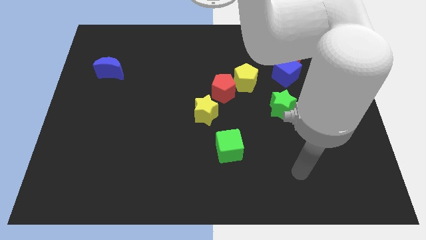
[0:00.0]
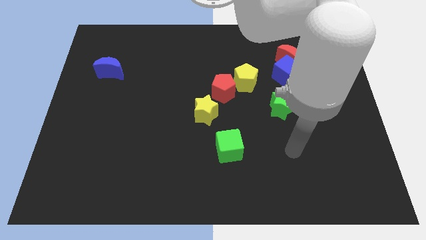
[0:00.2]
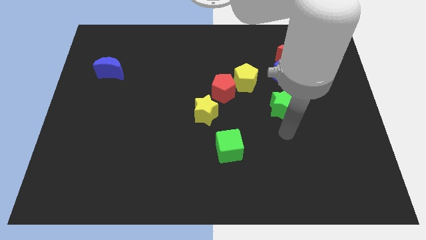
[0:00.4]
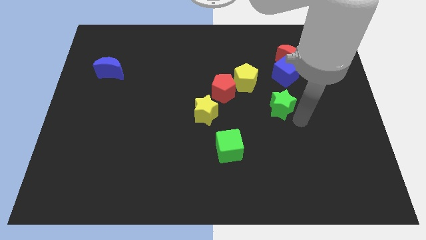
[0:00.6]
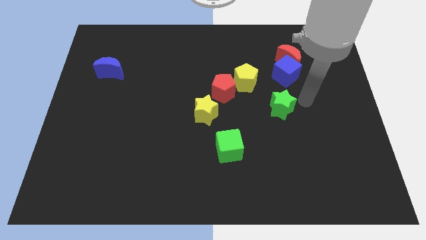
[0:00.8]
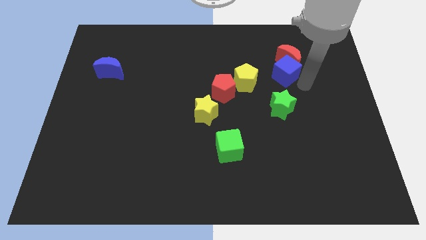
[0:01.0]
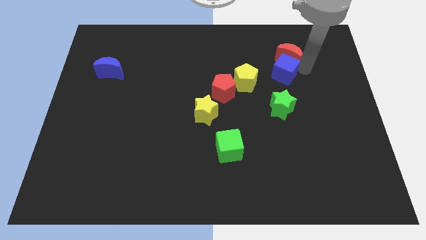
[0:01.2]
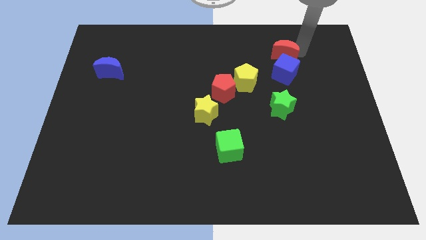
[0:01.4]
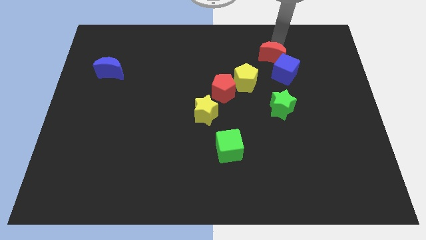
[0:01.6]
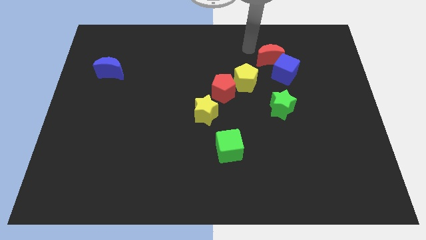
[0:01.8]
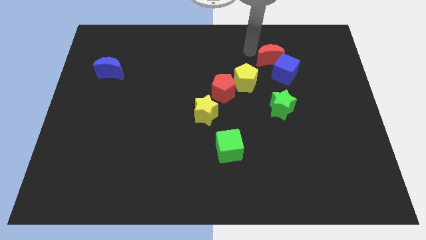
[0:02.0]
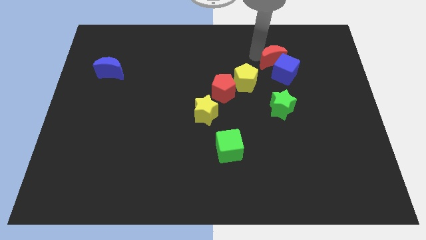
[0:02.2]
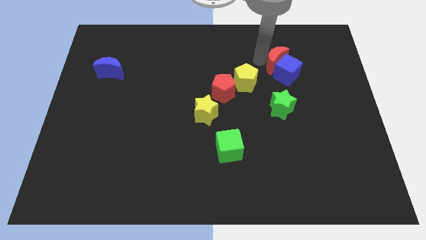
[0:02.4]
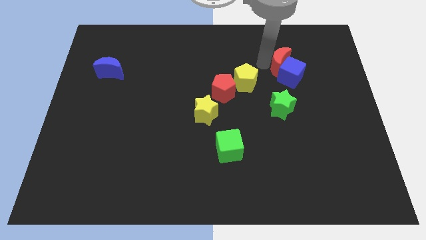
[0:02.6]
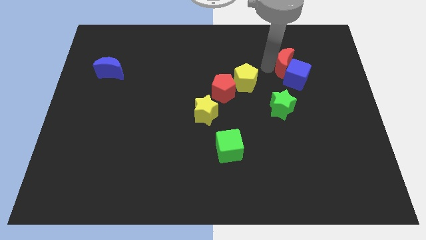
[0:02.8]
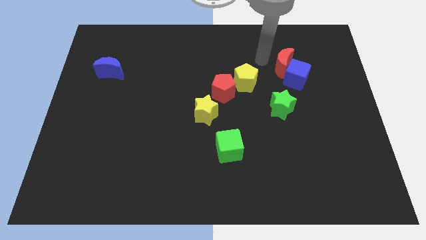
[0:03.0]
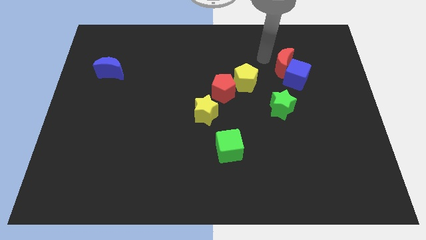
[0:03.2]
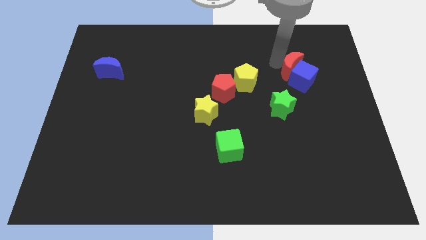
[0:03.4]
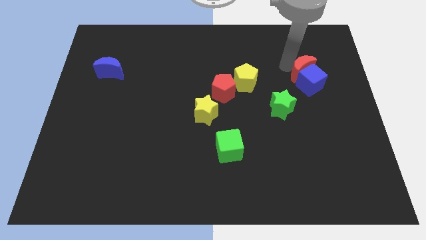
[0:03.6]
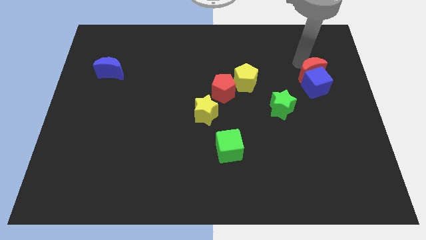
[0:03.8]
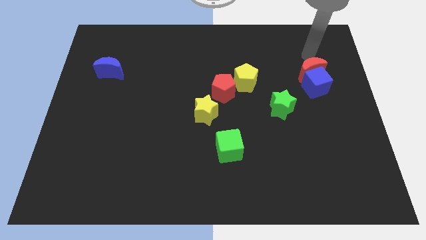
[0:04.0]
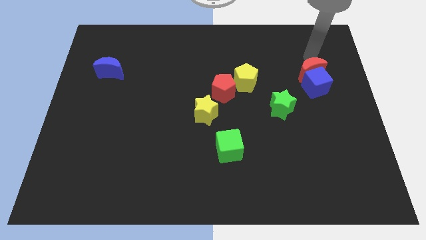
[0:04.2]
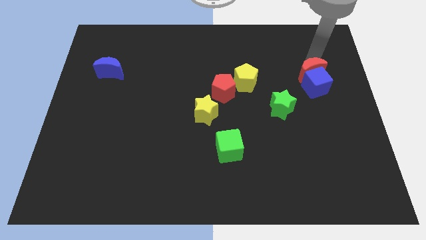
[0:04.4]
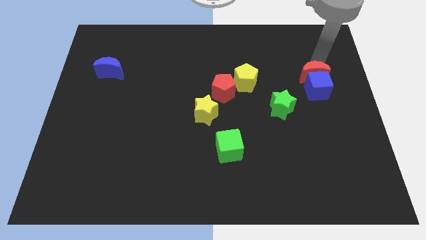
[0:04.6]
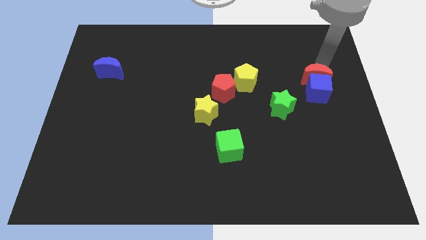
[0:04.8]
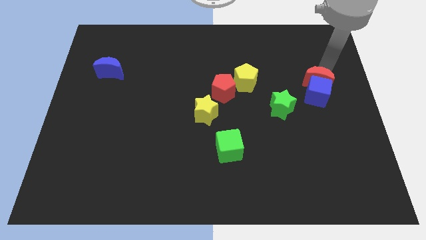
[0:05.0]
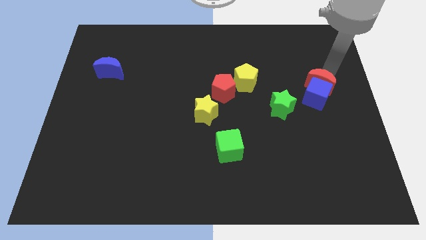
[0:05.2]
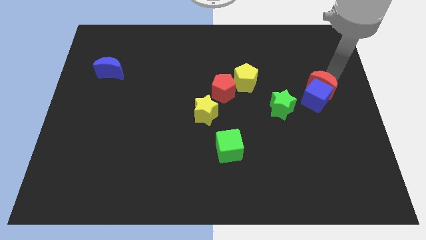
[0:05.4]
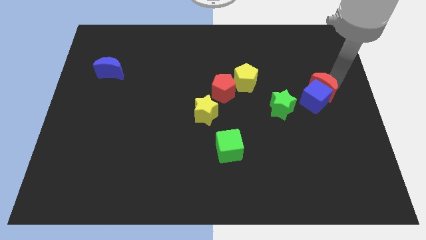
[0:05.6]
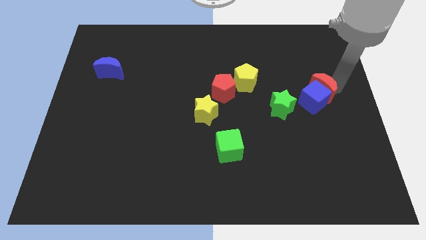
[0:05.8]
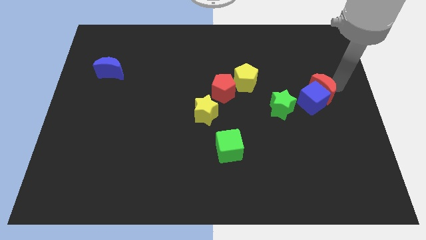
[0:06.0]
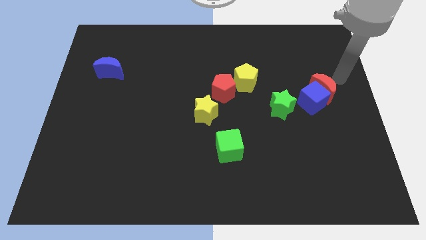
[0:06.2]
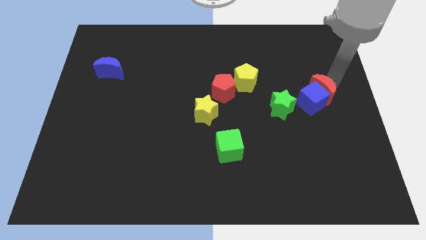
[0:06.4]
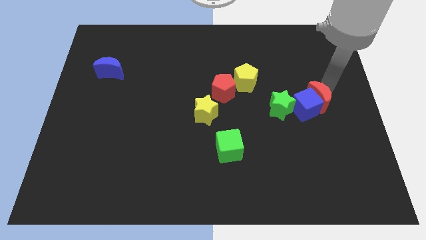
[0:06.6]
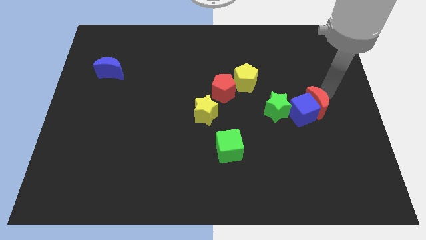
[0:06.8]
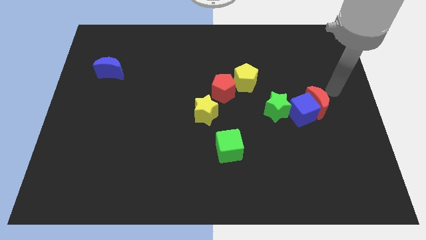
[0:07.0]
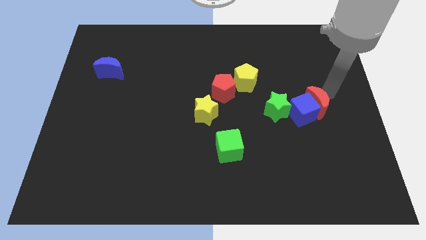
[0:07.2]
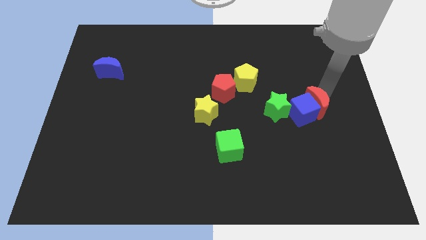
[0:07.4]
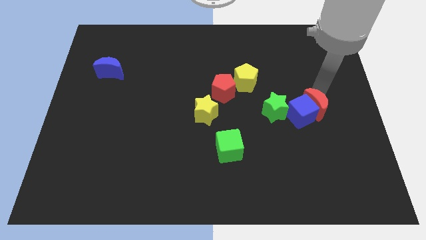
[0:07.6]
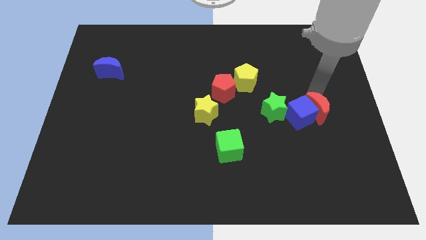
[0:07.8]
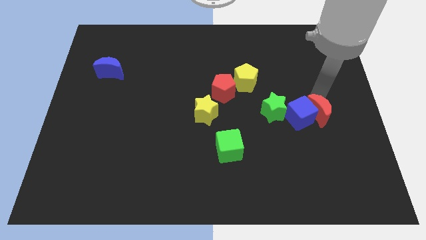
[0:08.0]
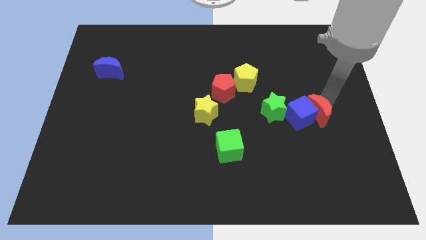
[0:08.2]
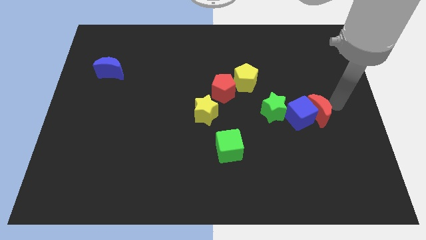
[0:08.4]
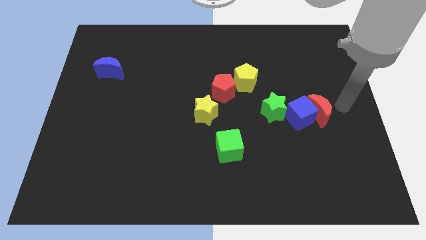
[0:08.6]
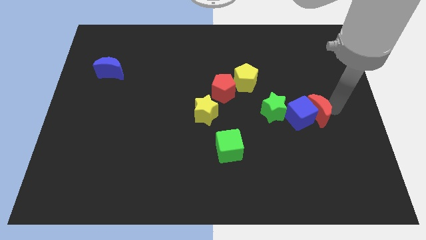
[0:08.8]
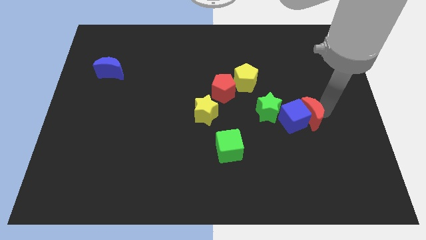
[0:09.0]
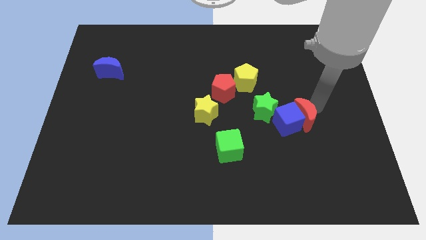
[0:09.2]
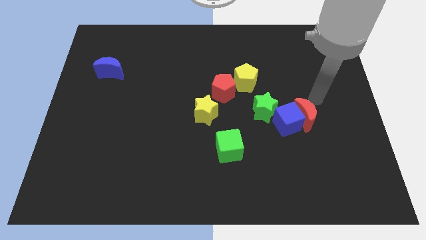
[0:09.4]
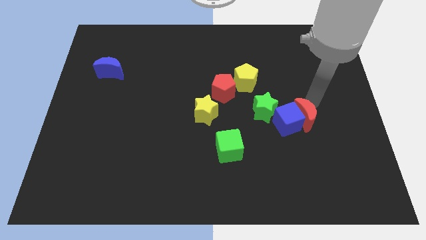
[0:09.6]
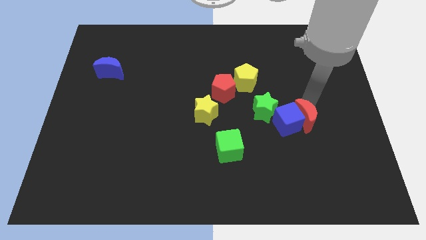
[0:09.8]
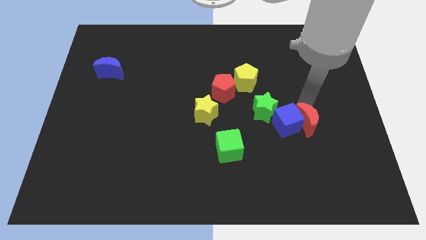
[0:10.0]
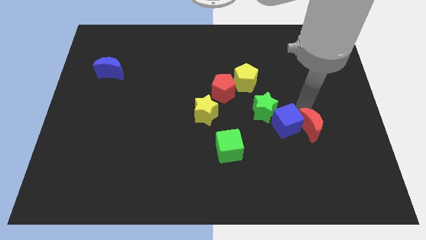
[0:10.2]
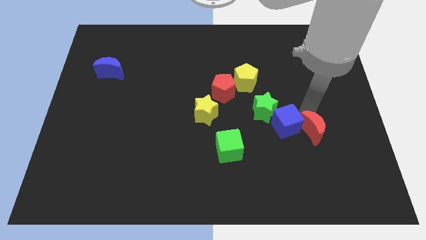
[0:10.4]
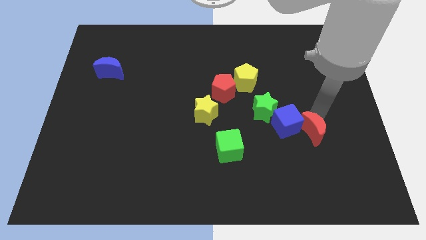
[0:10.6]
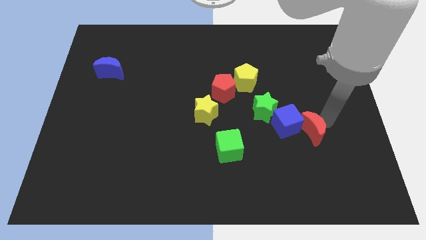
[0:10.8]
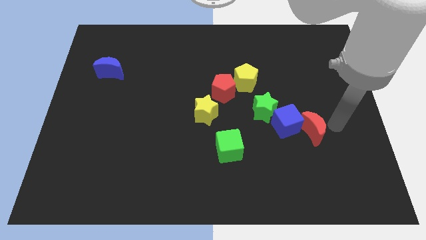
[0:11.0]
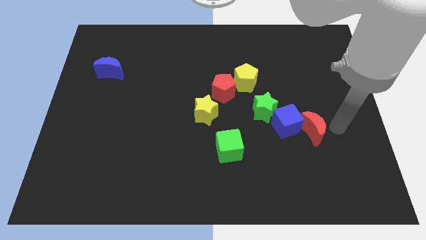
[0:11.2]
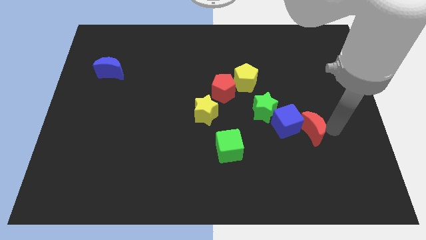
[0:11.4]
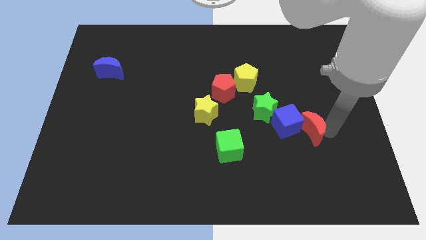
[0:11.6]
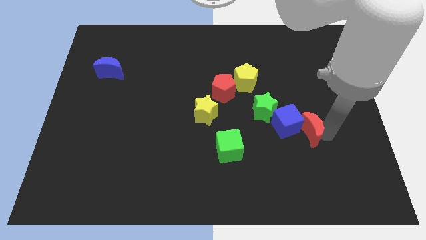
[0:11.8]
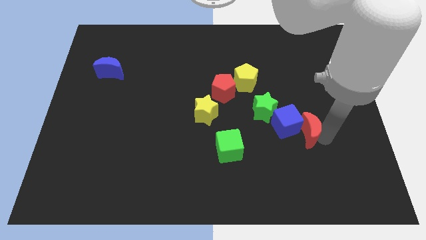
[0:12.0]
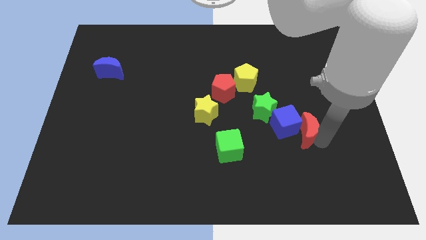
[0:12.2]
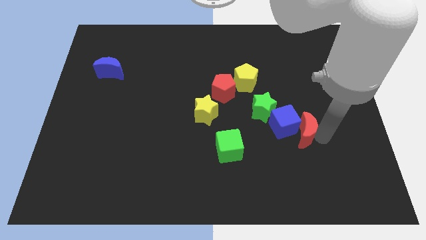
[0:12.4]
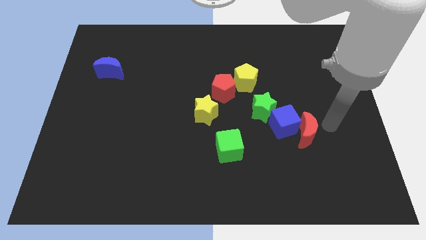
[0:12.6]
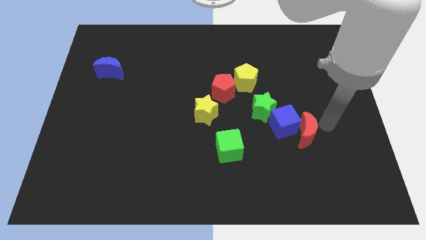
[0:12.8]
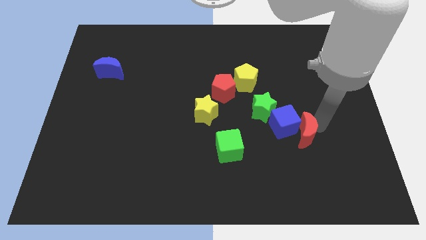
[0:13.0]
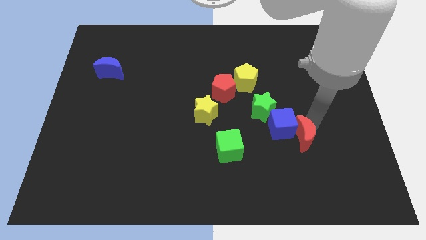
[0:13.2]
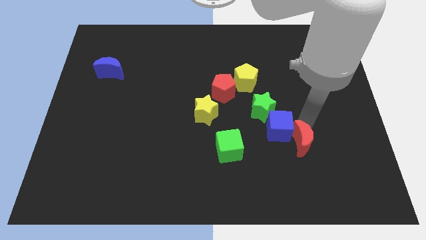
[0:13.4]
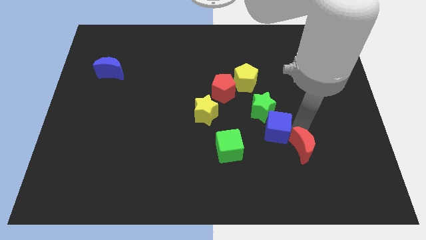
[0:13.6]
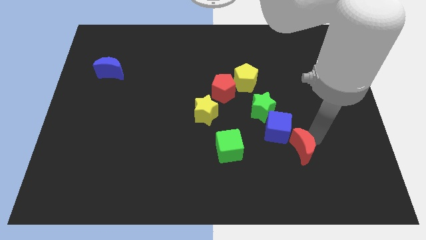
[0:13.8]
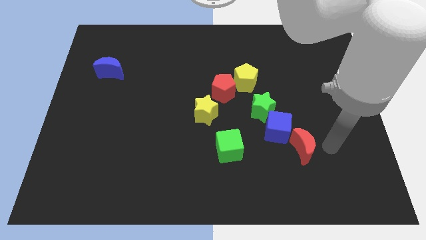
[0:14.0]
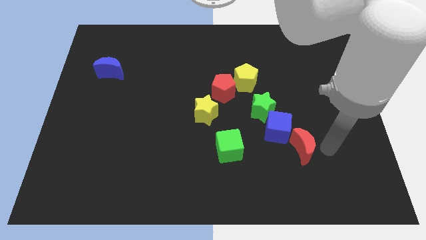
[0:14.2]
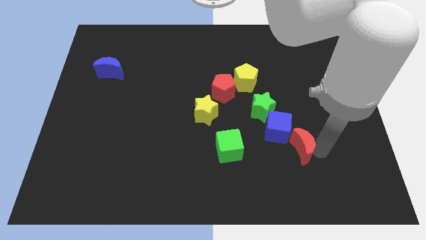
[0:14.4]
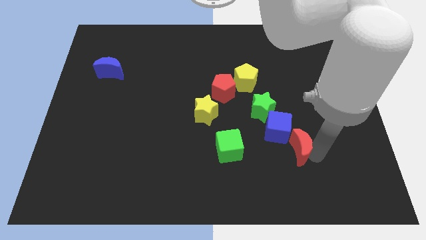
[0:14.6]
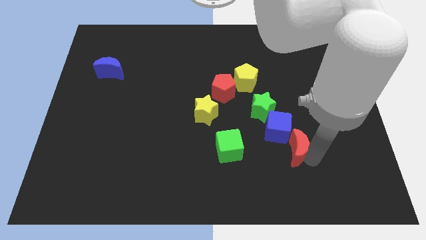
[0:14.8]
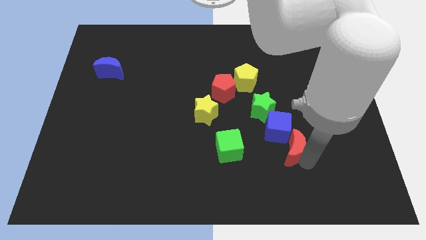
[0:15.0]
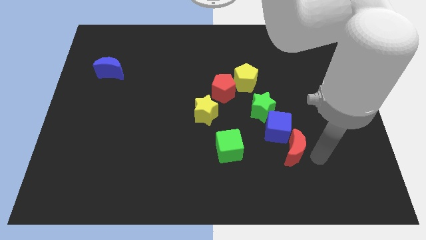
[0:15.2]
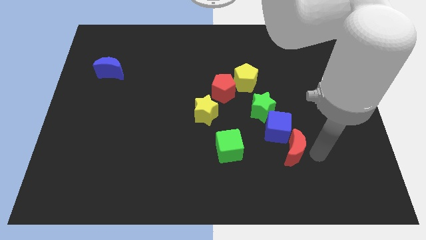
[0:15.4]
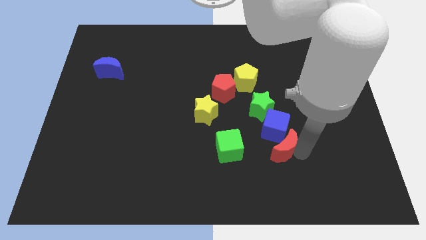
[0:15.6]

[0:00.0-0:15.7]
put the red moon below the green star
